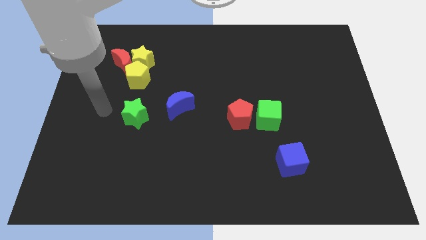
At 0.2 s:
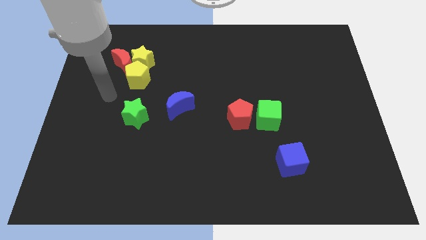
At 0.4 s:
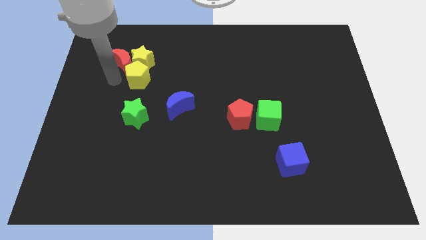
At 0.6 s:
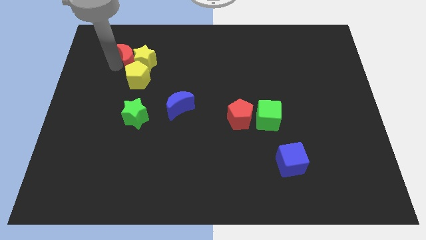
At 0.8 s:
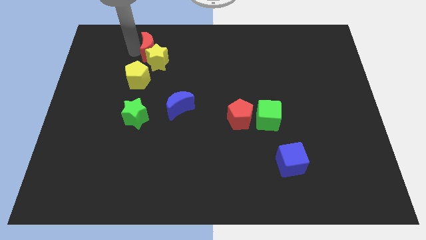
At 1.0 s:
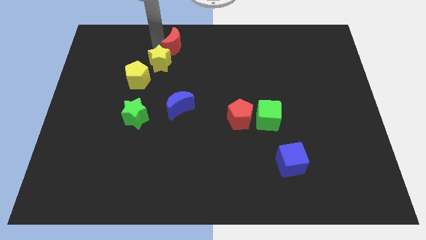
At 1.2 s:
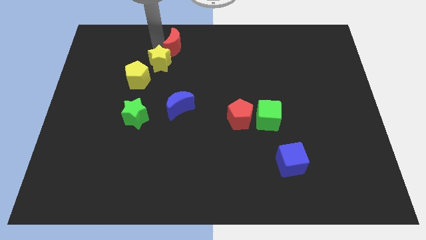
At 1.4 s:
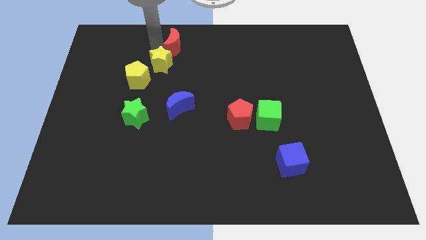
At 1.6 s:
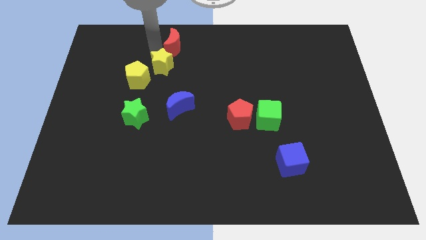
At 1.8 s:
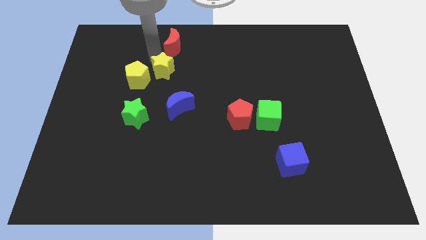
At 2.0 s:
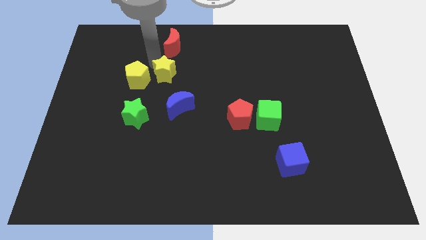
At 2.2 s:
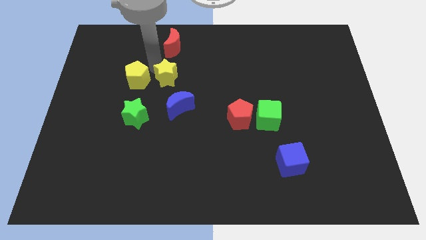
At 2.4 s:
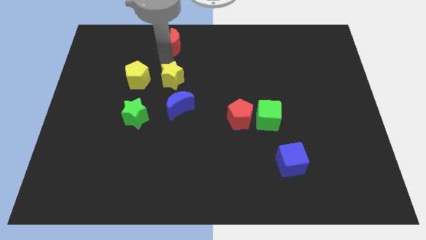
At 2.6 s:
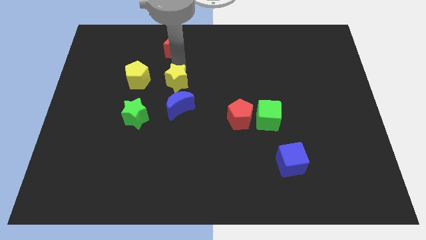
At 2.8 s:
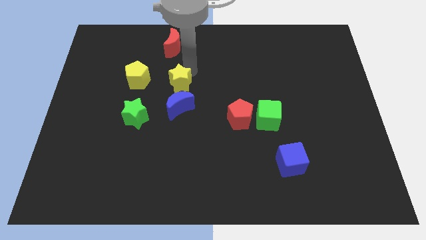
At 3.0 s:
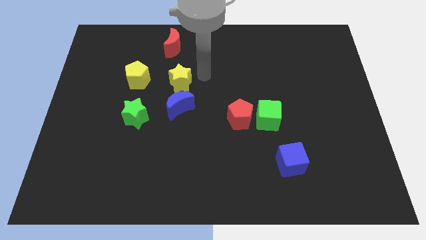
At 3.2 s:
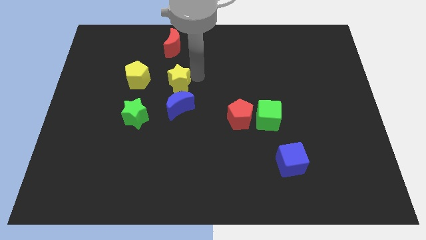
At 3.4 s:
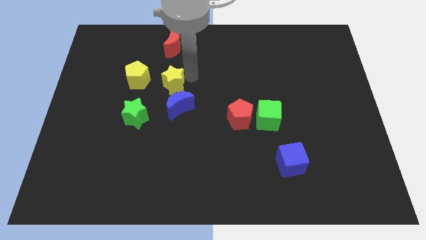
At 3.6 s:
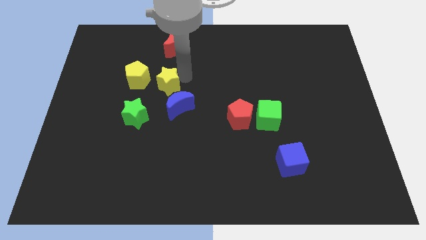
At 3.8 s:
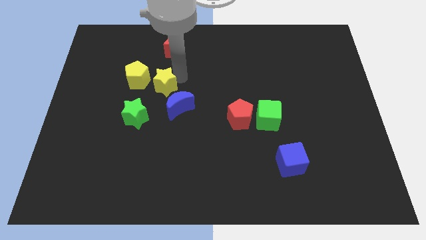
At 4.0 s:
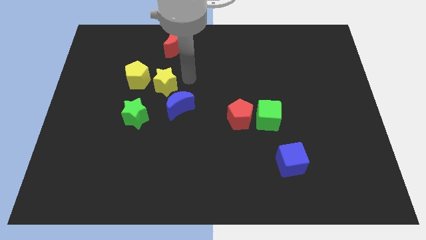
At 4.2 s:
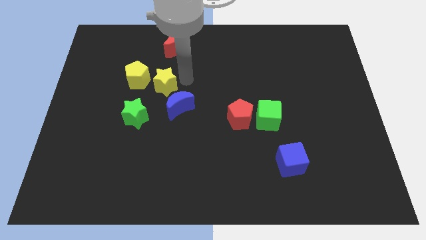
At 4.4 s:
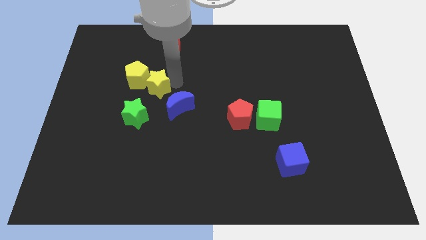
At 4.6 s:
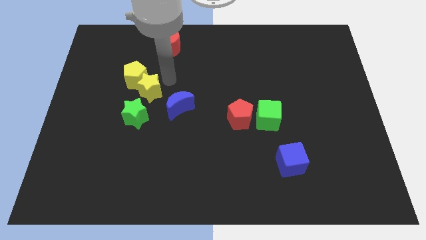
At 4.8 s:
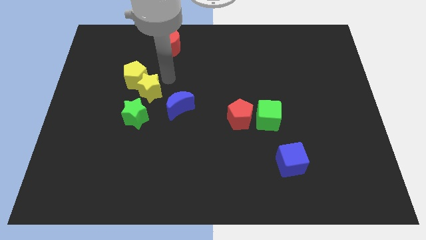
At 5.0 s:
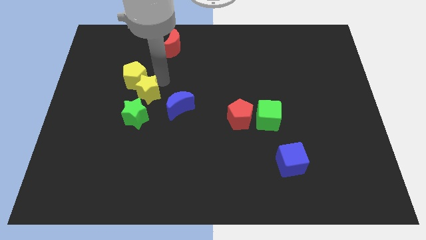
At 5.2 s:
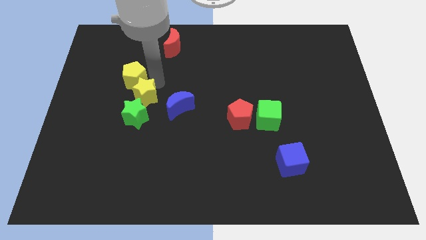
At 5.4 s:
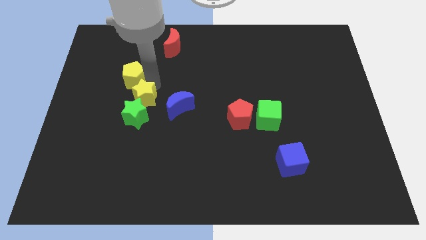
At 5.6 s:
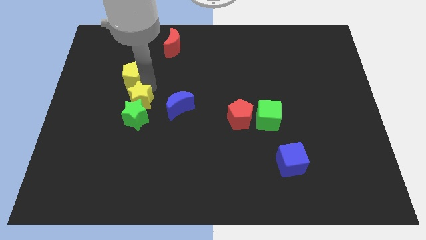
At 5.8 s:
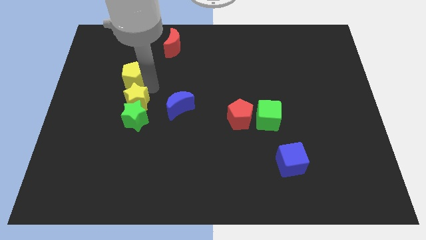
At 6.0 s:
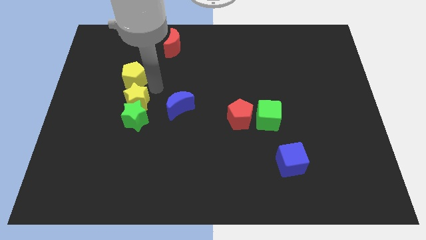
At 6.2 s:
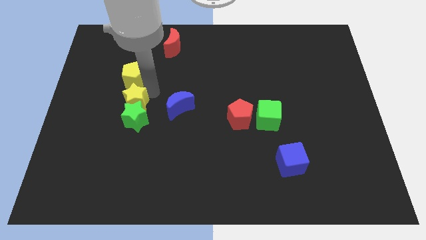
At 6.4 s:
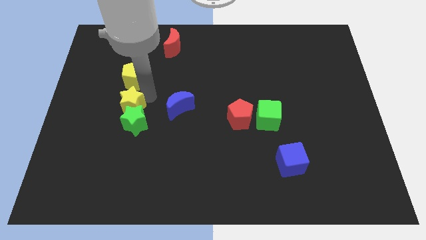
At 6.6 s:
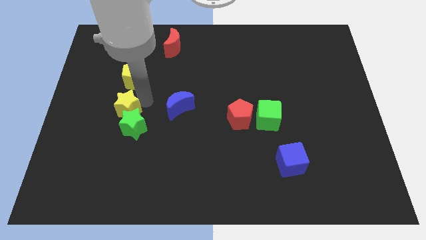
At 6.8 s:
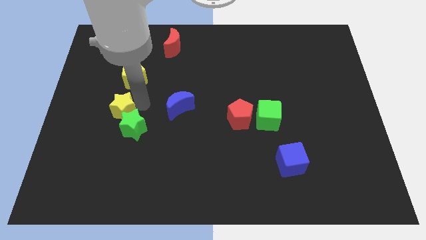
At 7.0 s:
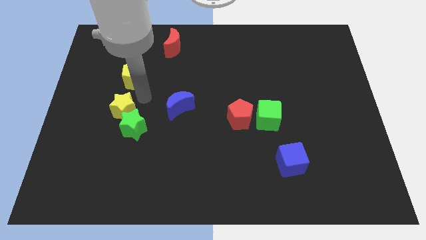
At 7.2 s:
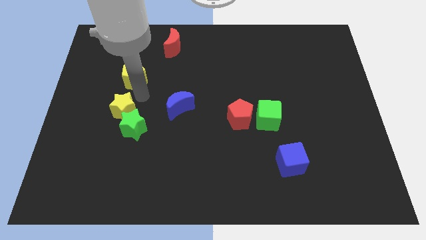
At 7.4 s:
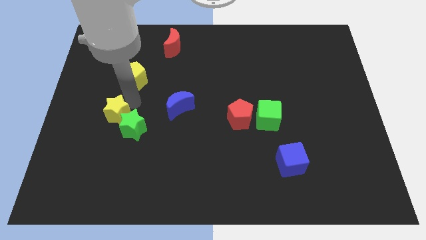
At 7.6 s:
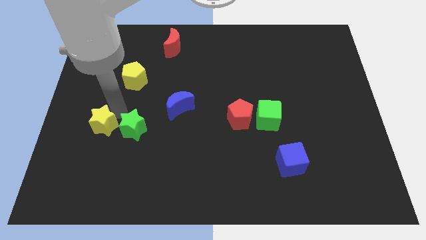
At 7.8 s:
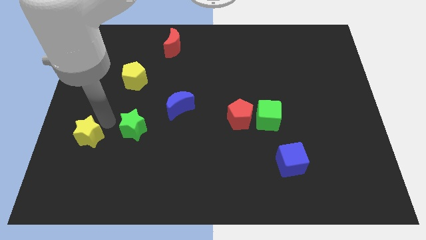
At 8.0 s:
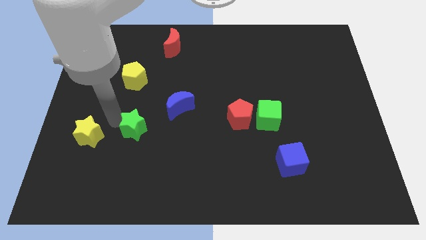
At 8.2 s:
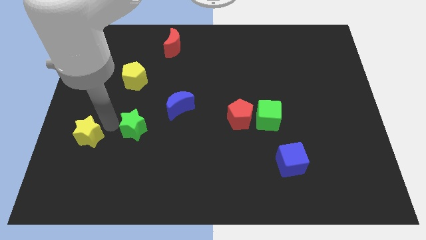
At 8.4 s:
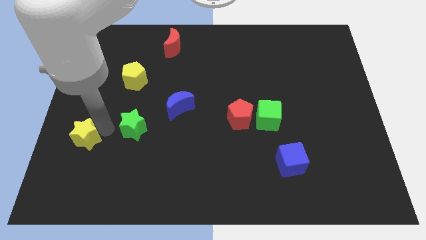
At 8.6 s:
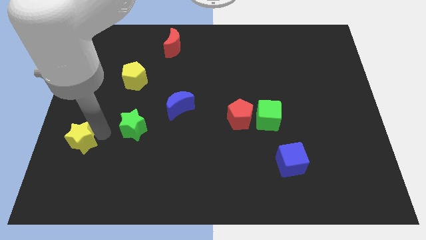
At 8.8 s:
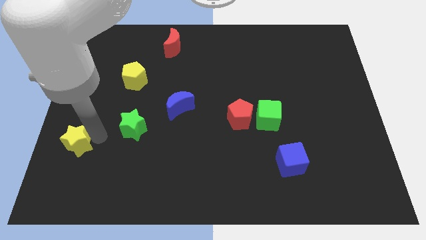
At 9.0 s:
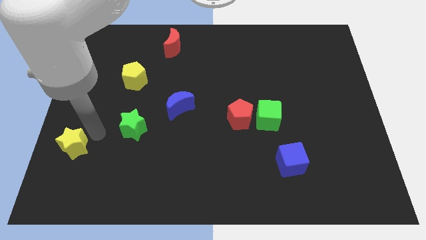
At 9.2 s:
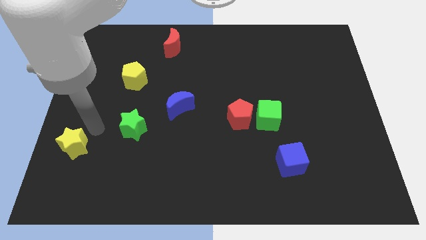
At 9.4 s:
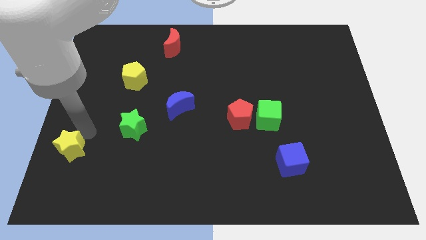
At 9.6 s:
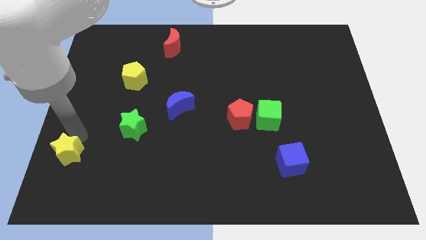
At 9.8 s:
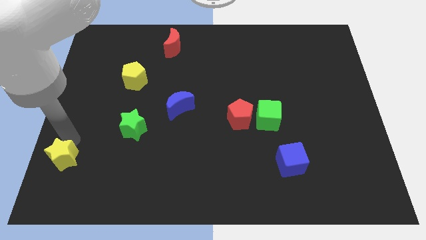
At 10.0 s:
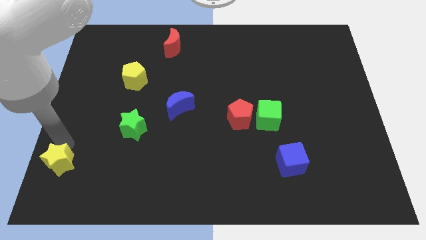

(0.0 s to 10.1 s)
put the yellow star to the bottom left

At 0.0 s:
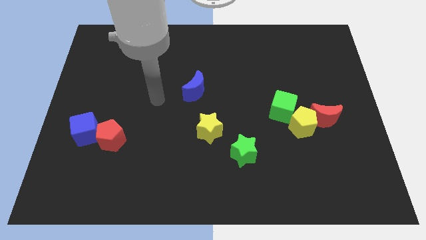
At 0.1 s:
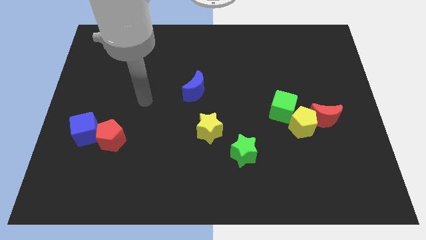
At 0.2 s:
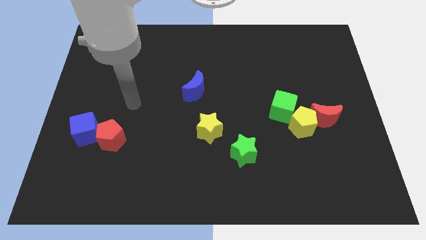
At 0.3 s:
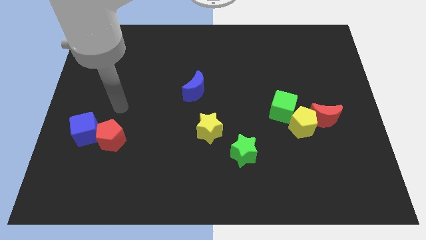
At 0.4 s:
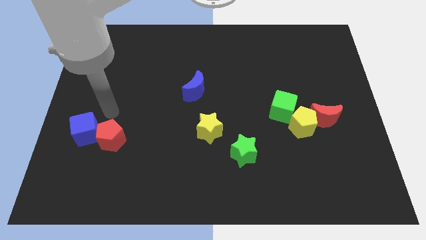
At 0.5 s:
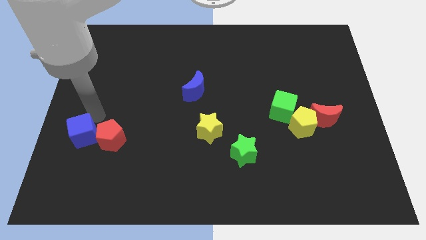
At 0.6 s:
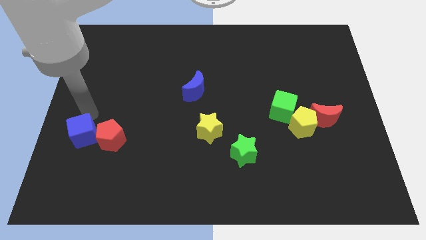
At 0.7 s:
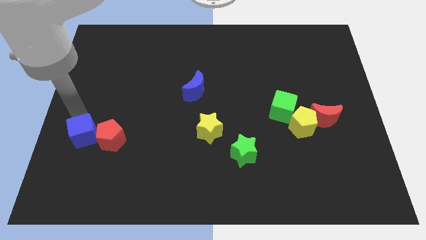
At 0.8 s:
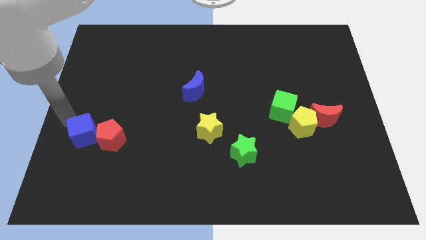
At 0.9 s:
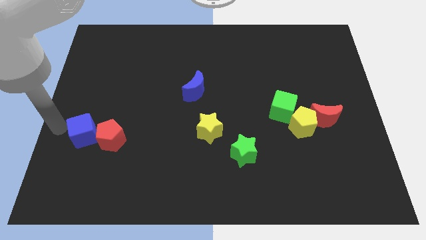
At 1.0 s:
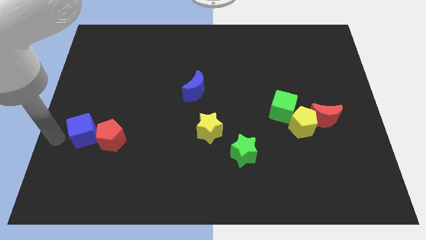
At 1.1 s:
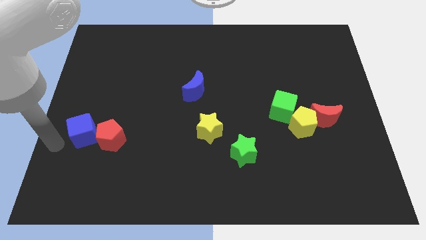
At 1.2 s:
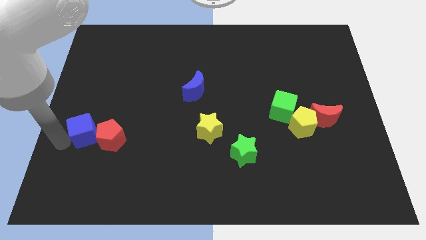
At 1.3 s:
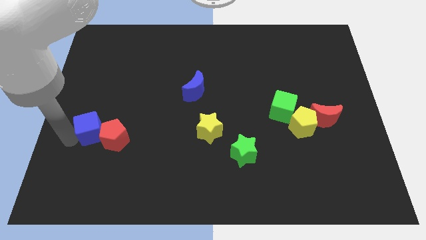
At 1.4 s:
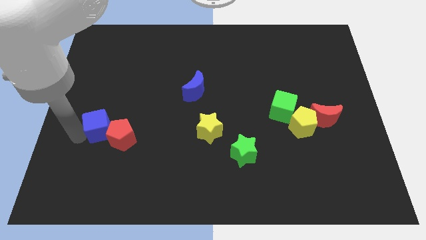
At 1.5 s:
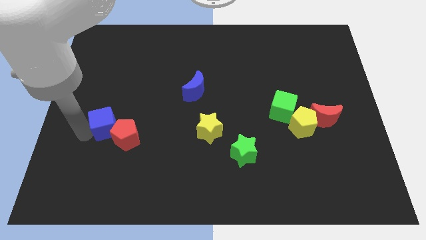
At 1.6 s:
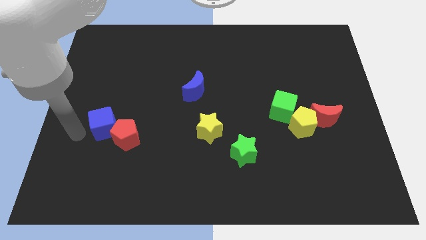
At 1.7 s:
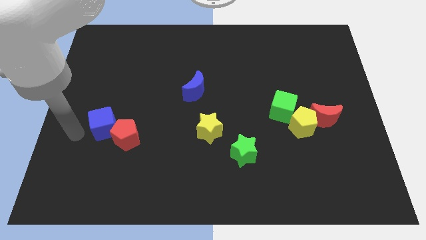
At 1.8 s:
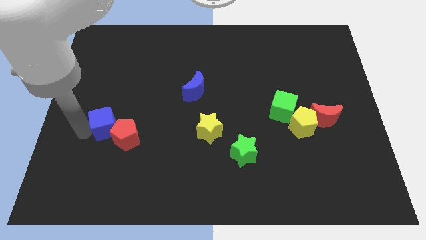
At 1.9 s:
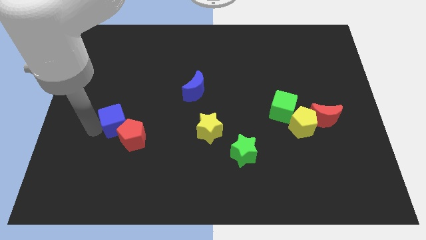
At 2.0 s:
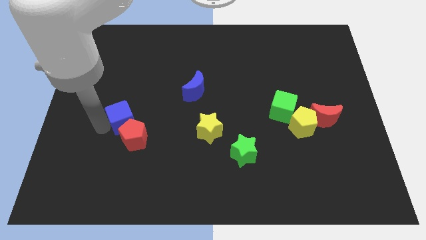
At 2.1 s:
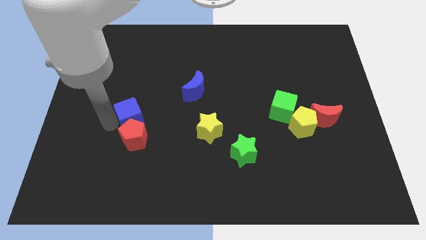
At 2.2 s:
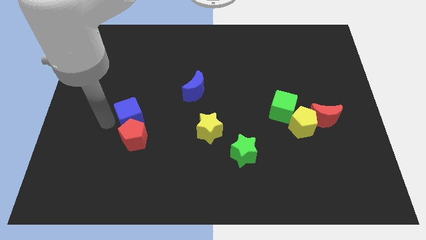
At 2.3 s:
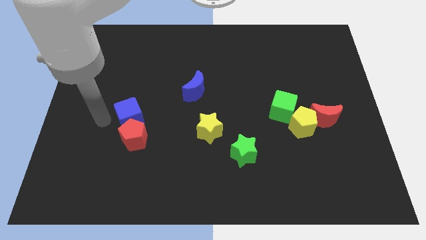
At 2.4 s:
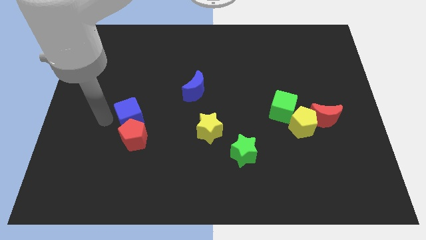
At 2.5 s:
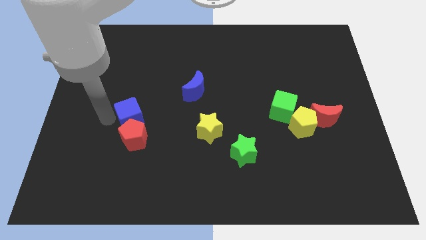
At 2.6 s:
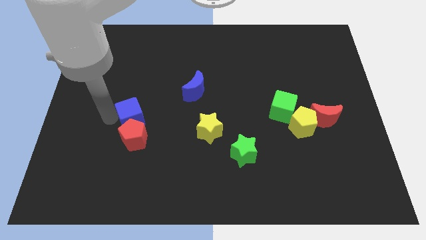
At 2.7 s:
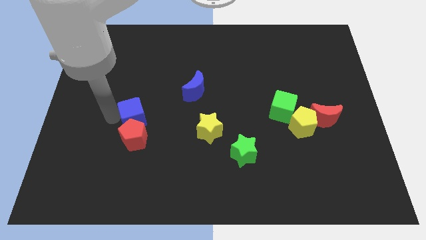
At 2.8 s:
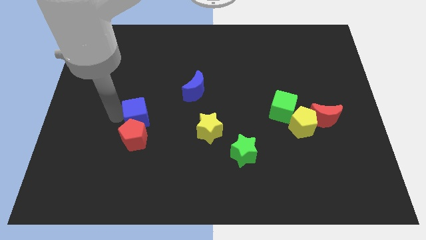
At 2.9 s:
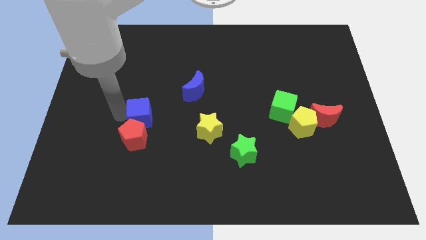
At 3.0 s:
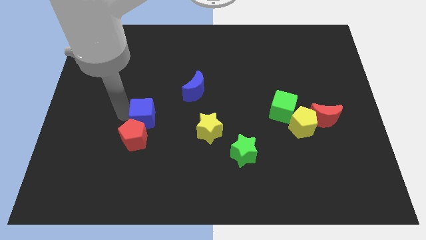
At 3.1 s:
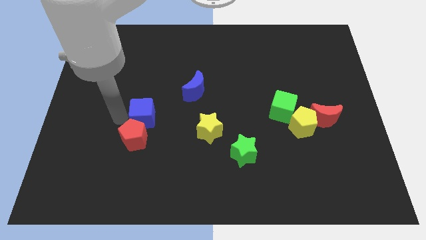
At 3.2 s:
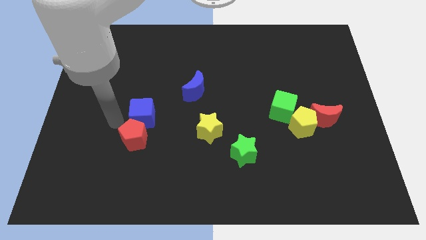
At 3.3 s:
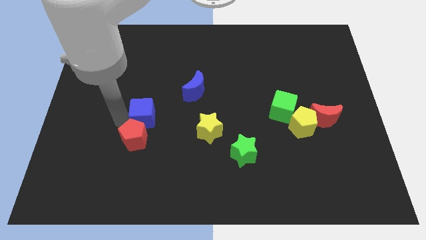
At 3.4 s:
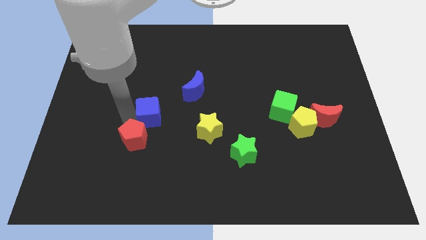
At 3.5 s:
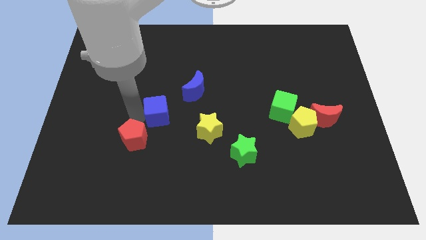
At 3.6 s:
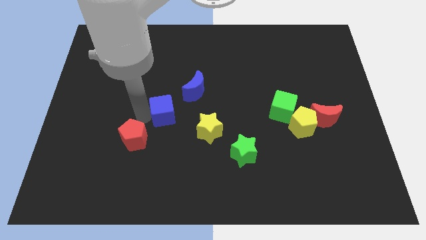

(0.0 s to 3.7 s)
move the blue cube to the middle
